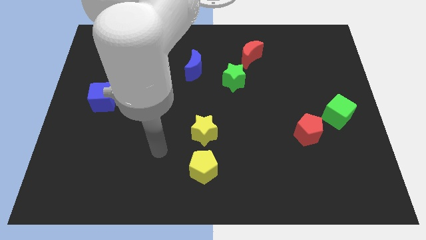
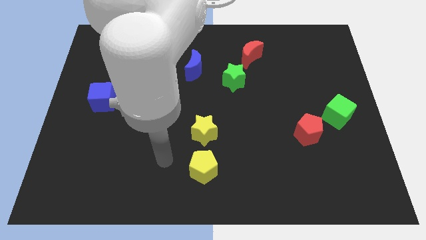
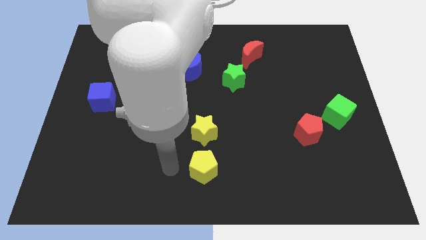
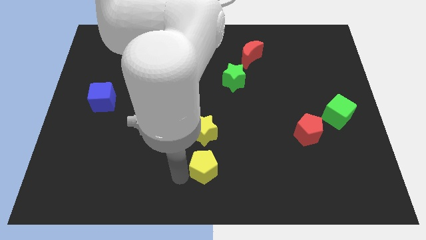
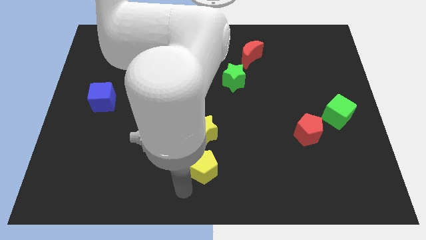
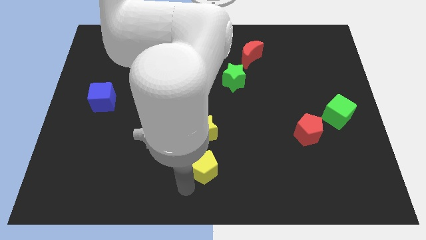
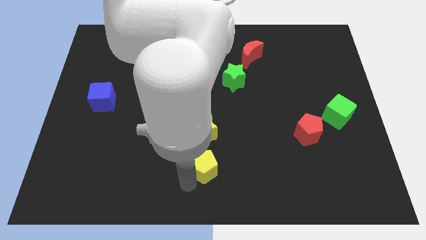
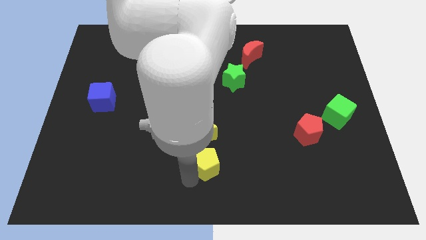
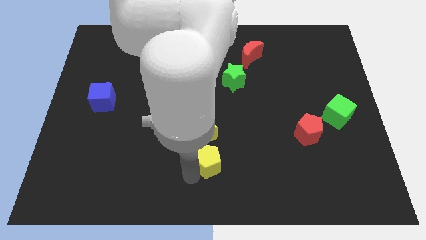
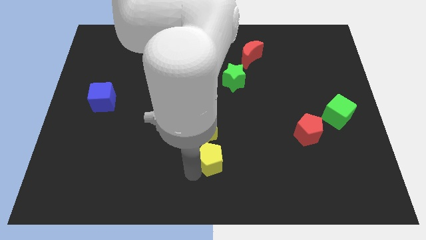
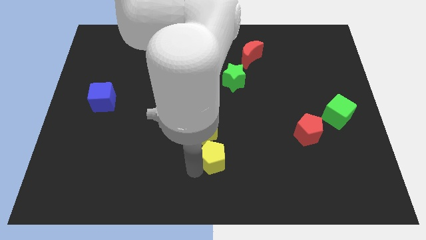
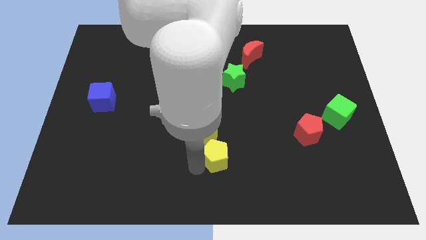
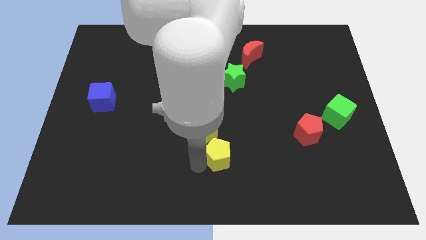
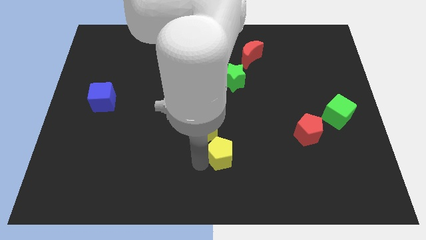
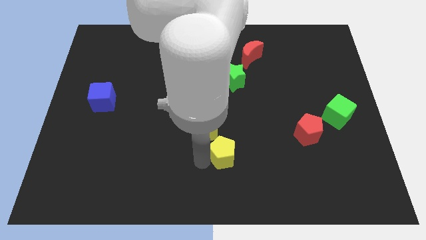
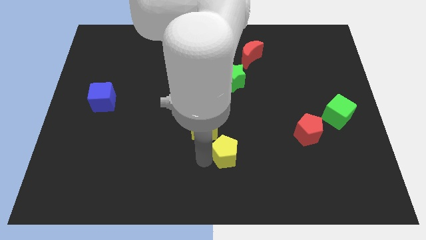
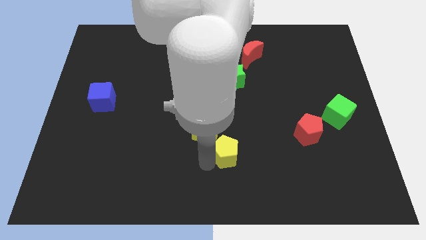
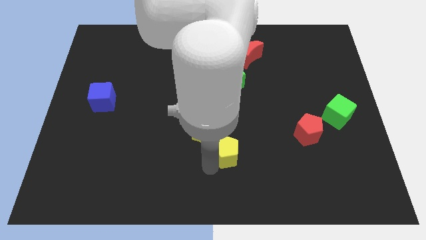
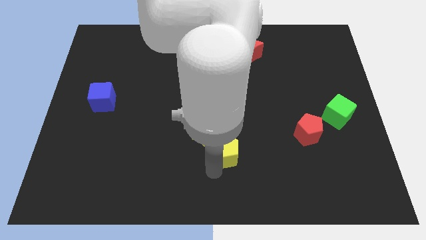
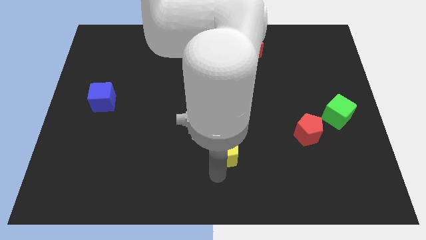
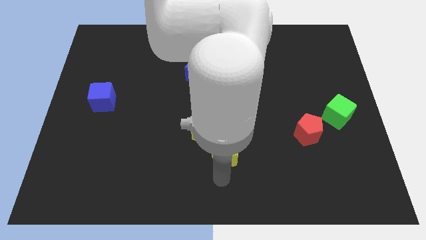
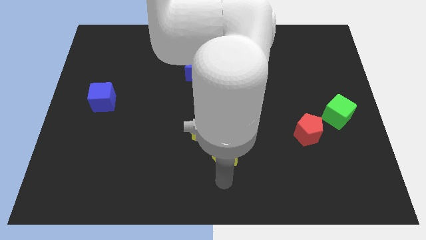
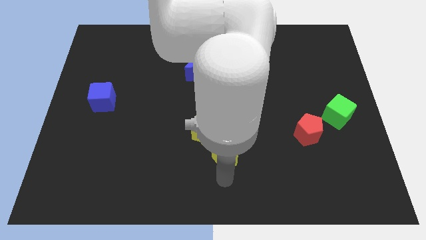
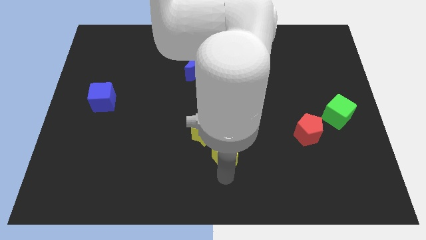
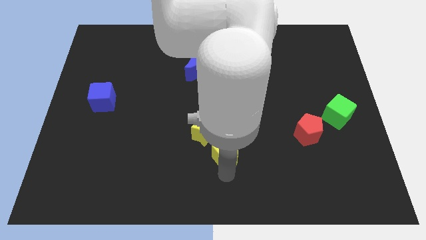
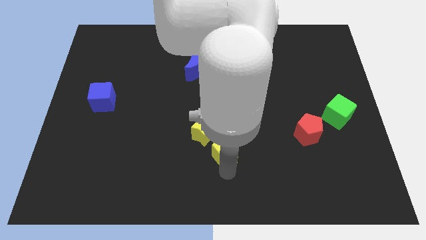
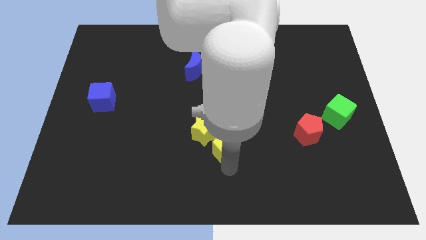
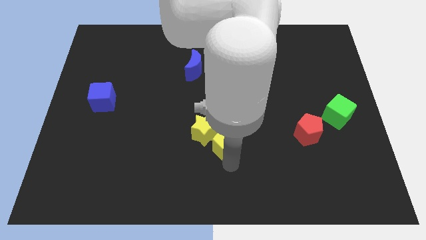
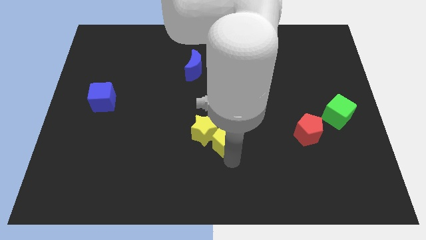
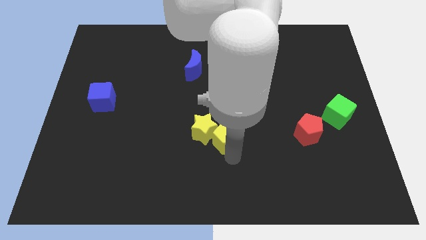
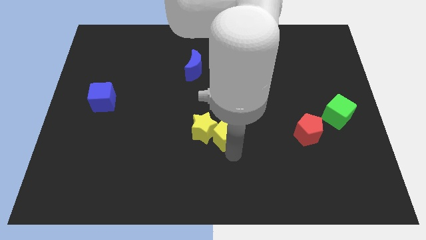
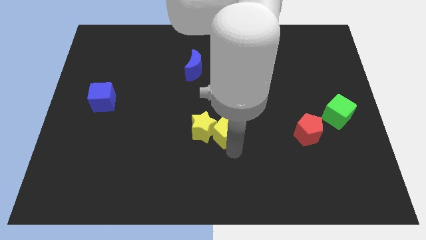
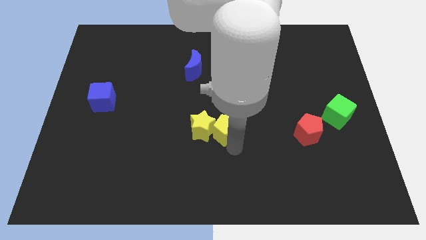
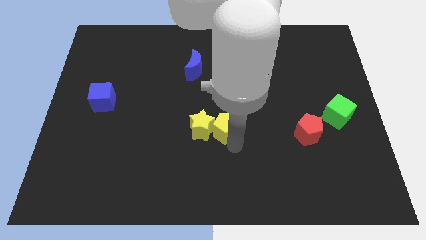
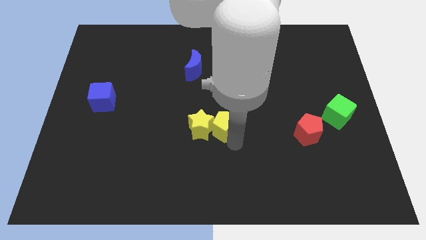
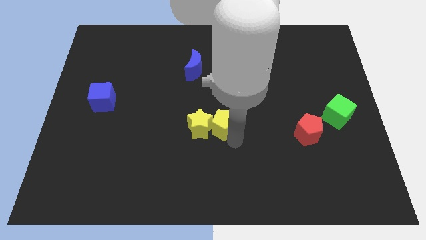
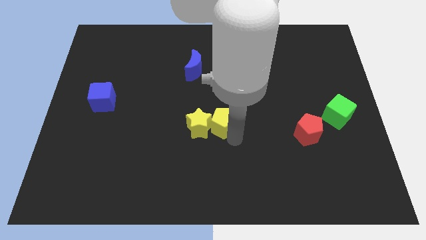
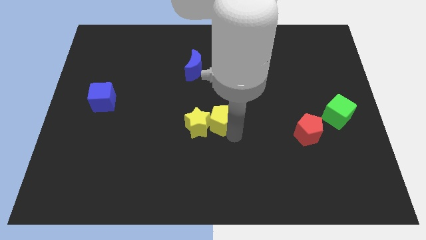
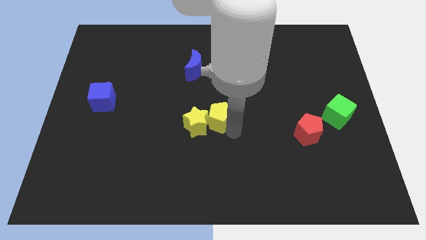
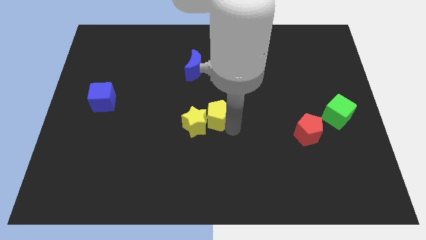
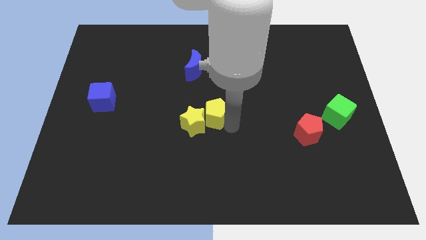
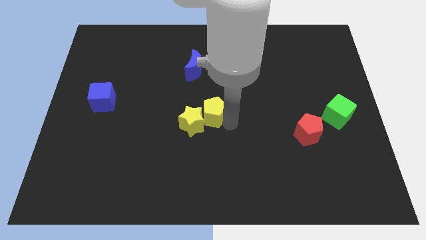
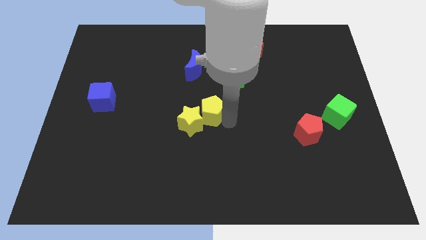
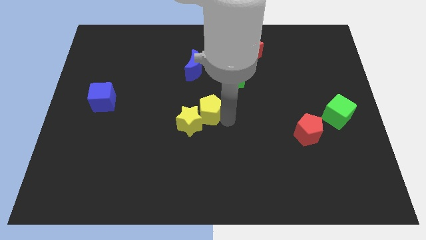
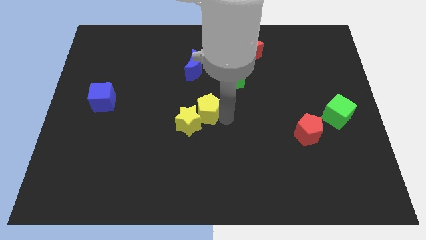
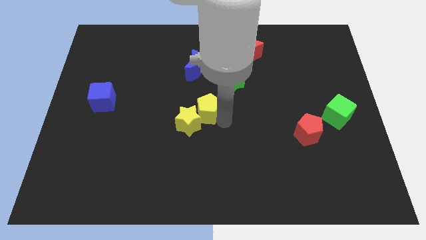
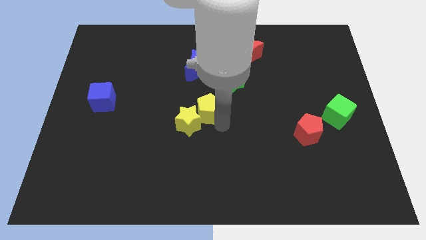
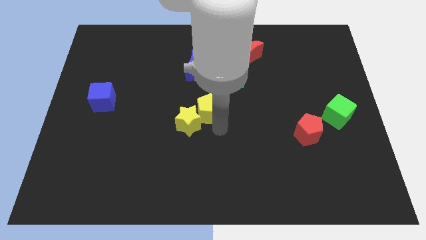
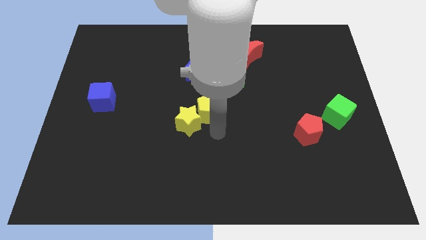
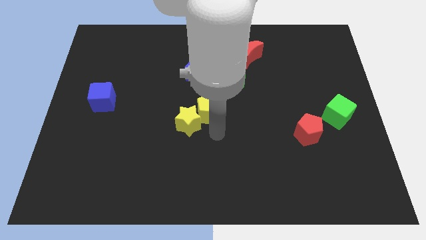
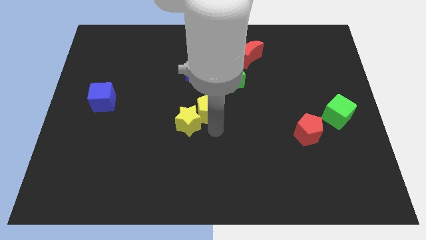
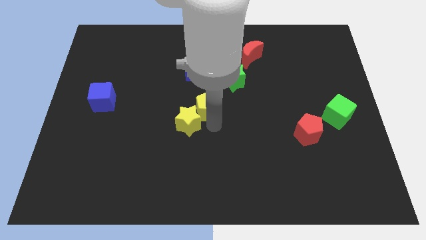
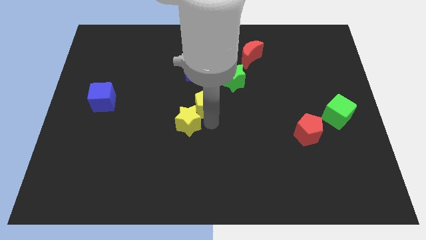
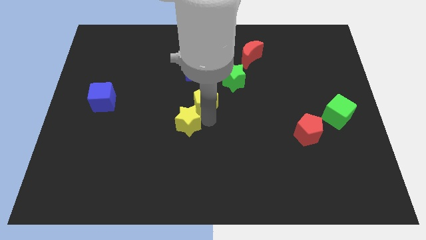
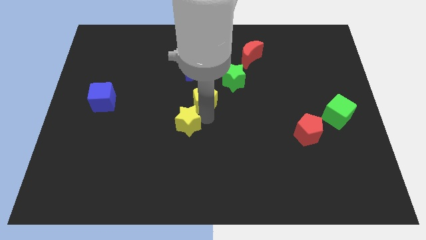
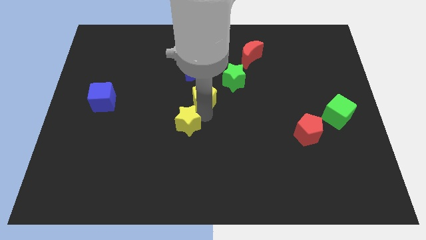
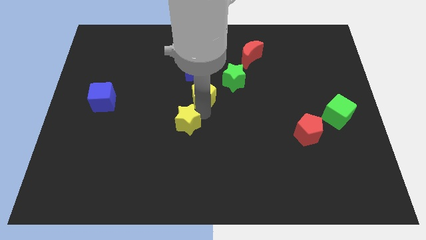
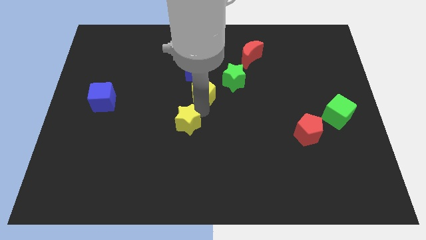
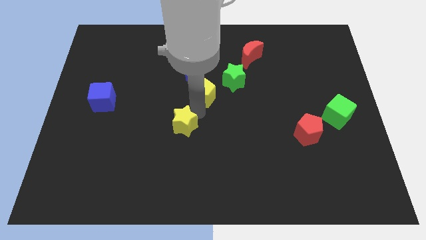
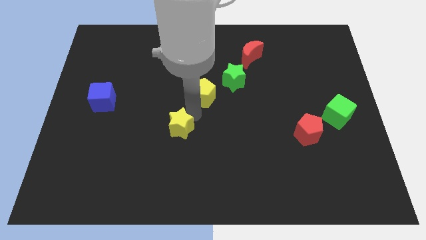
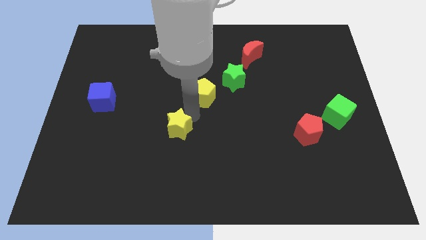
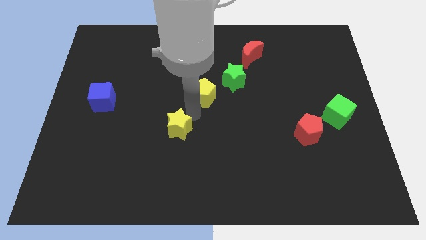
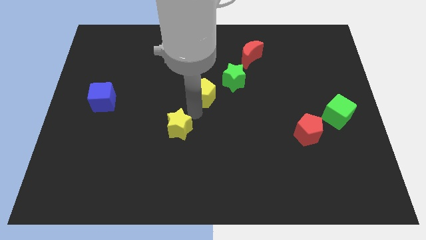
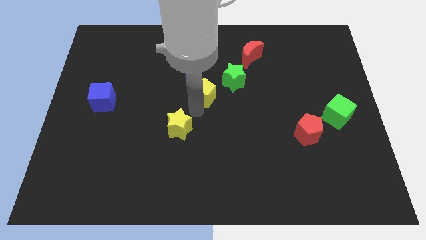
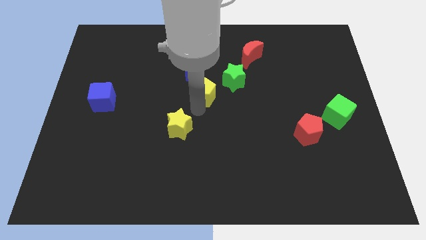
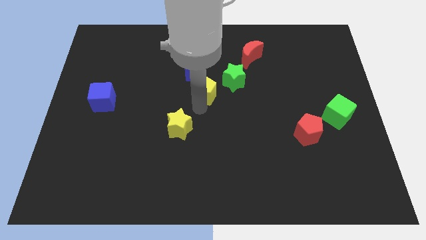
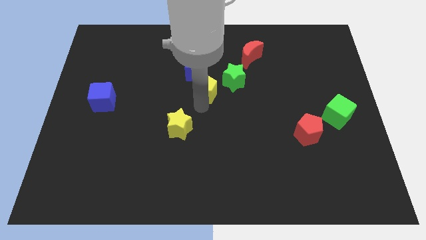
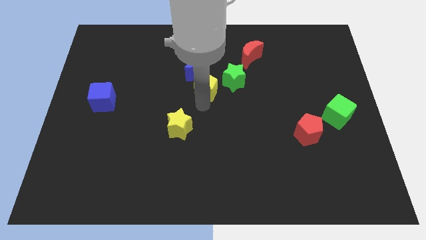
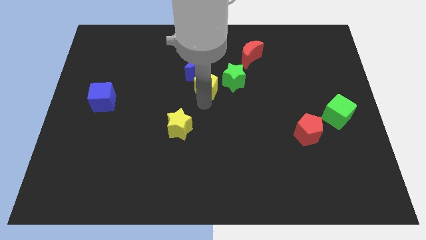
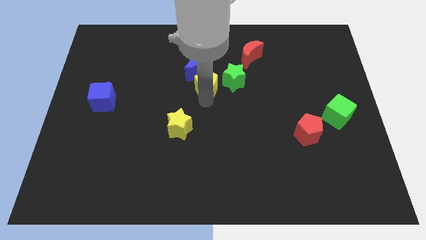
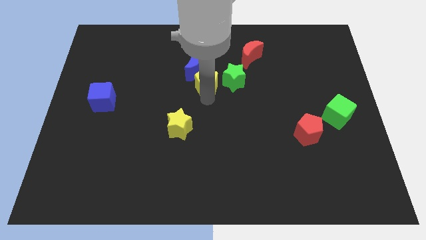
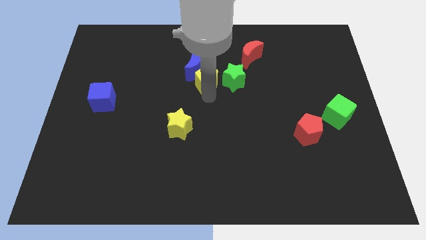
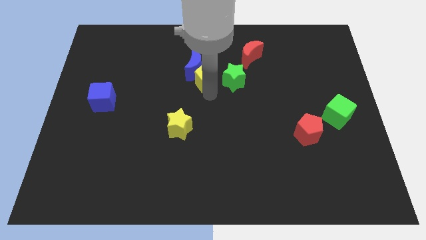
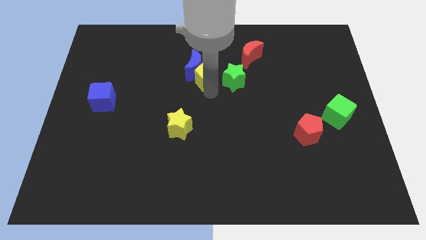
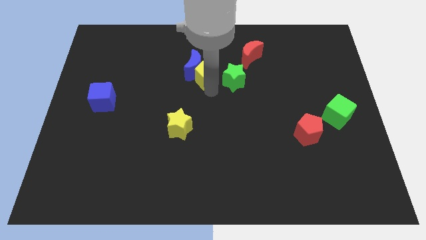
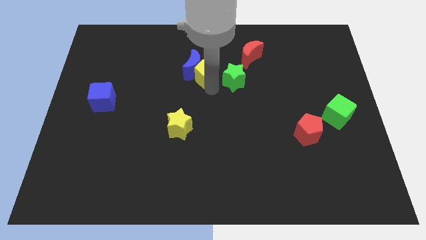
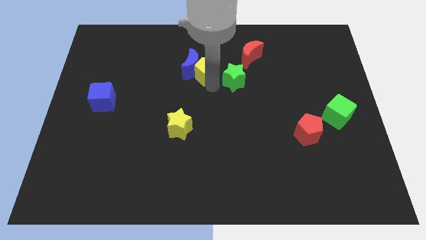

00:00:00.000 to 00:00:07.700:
put the yellow pentagon to the top right side of the blue moon
